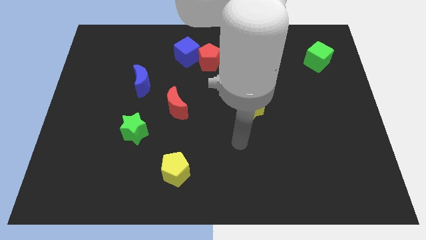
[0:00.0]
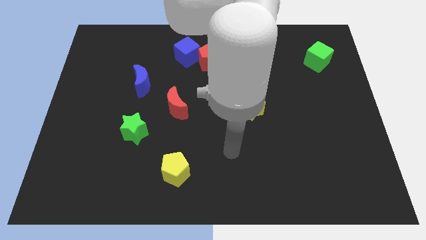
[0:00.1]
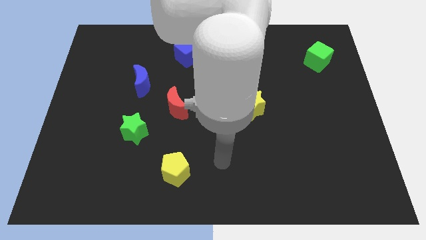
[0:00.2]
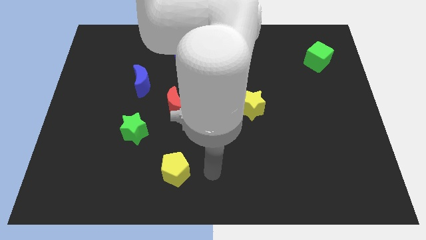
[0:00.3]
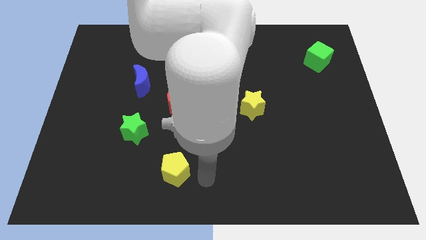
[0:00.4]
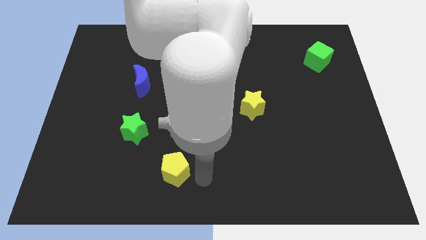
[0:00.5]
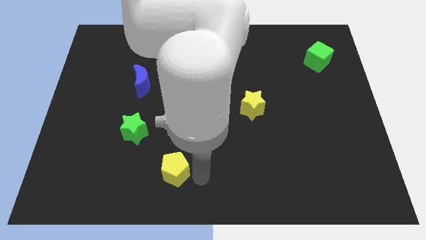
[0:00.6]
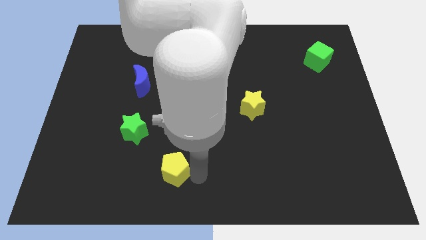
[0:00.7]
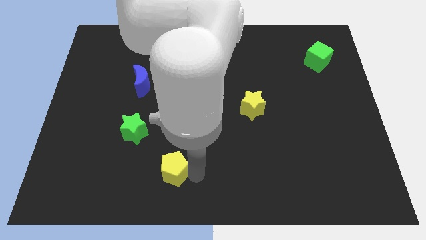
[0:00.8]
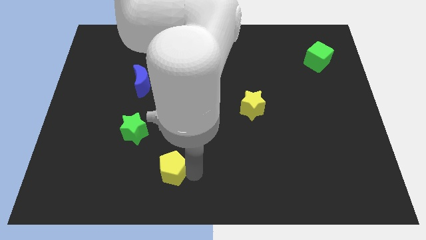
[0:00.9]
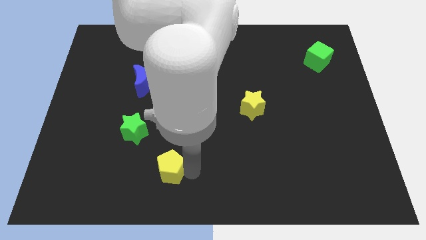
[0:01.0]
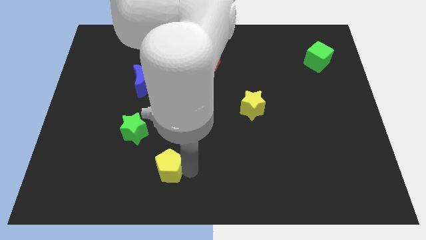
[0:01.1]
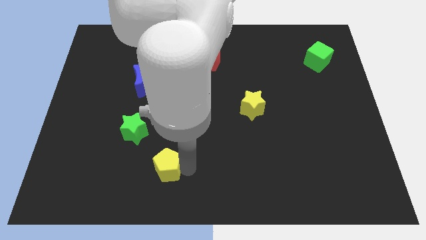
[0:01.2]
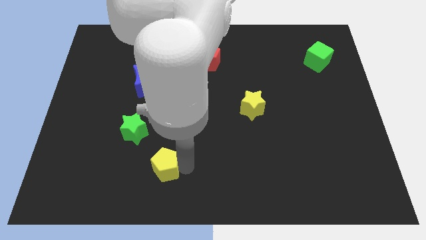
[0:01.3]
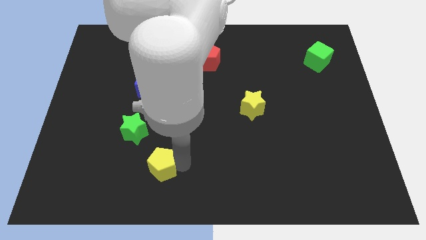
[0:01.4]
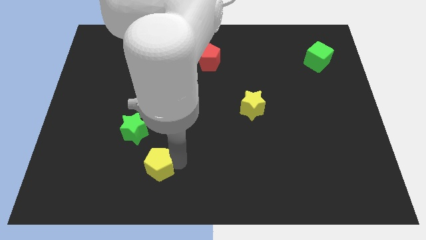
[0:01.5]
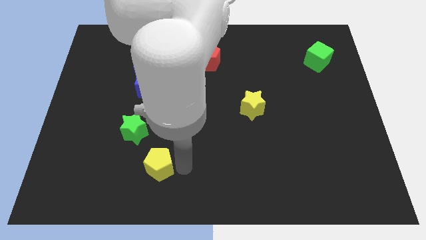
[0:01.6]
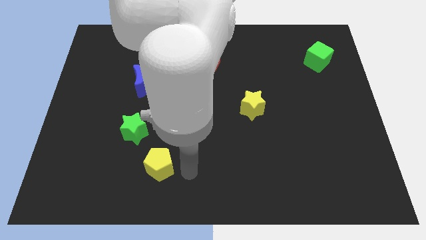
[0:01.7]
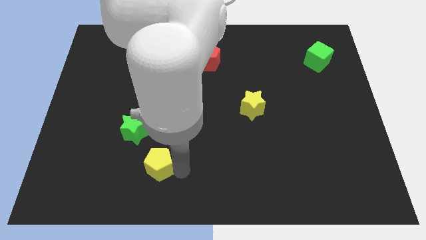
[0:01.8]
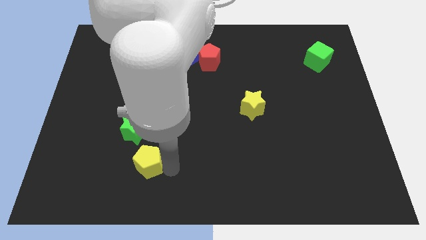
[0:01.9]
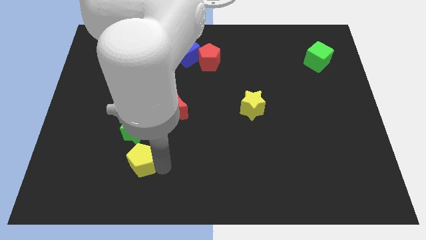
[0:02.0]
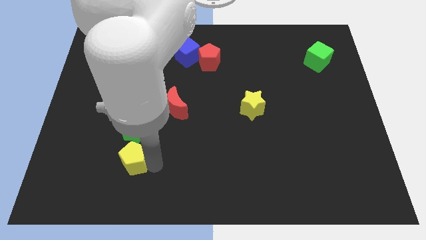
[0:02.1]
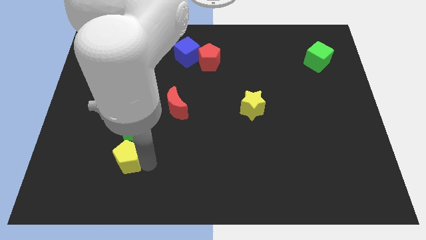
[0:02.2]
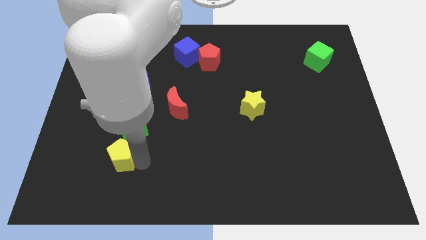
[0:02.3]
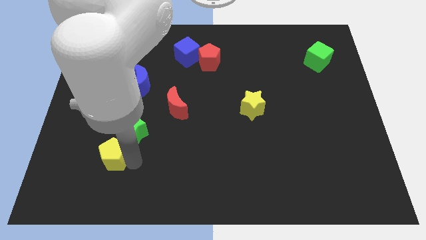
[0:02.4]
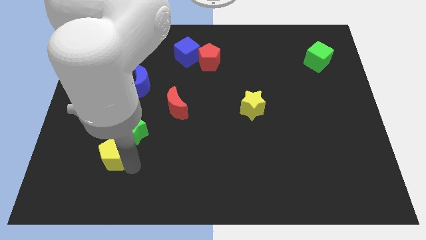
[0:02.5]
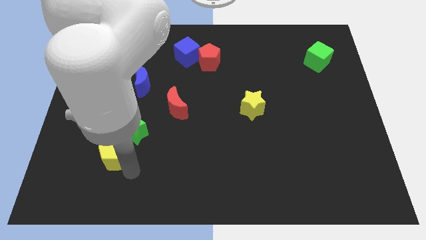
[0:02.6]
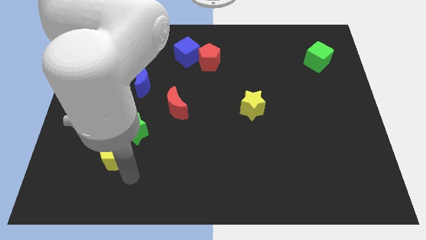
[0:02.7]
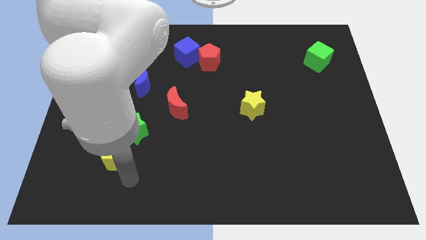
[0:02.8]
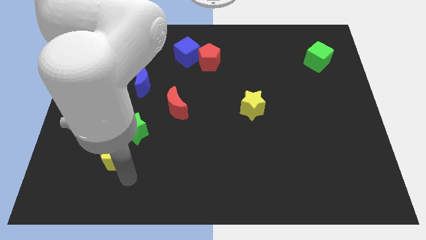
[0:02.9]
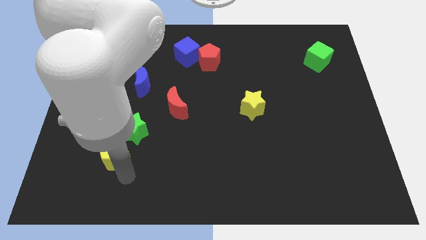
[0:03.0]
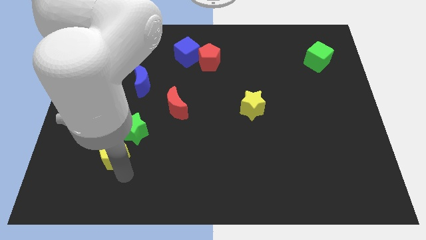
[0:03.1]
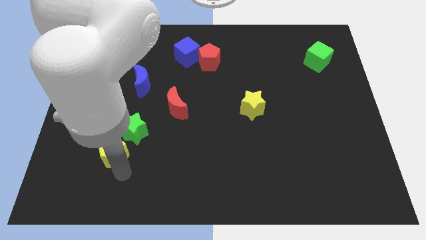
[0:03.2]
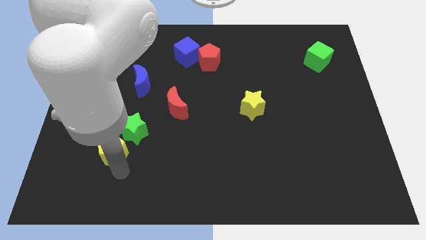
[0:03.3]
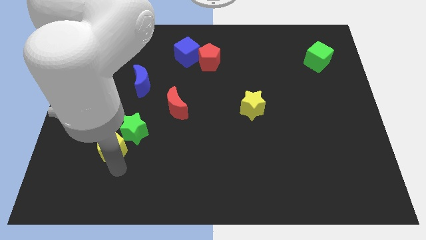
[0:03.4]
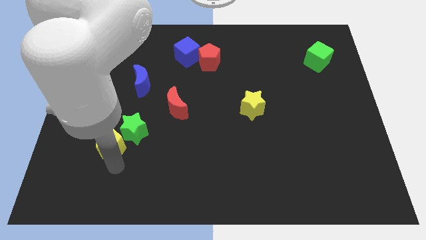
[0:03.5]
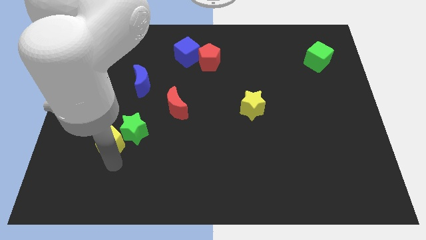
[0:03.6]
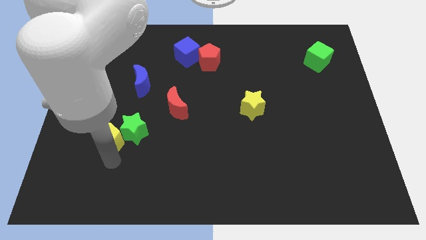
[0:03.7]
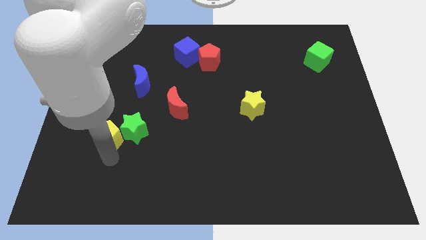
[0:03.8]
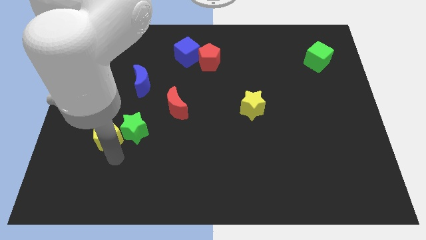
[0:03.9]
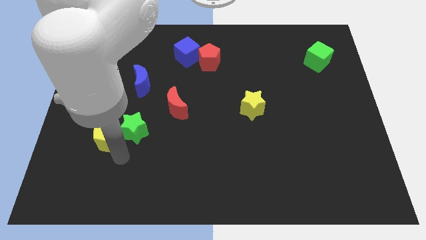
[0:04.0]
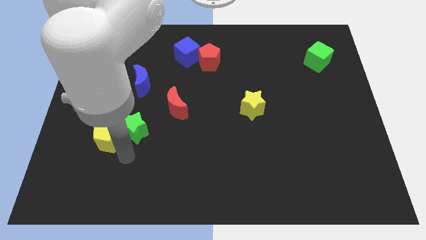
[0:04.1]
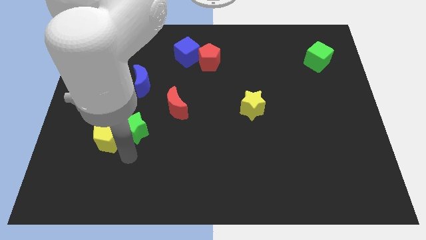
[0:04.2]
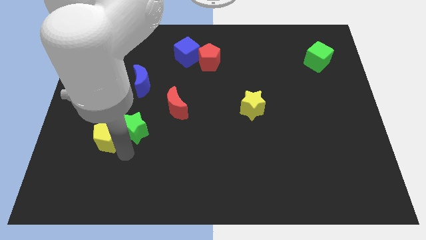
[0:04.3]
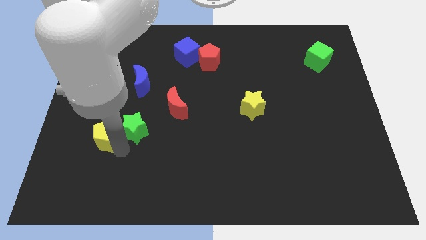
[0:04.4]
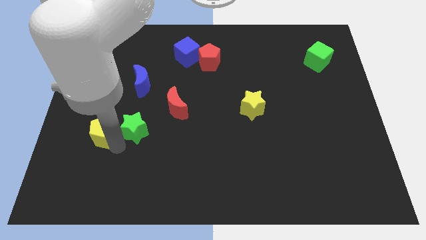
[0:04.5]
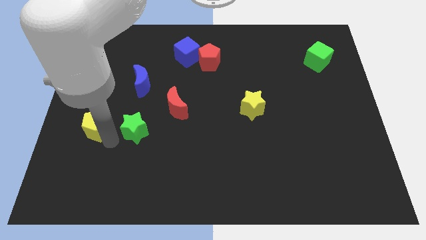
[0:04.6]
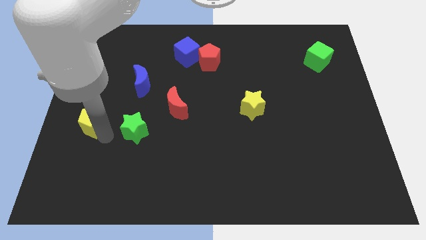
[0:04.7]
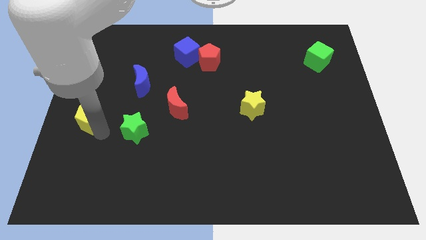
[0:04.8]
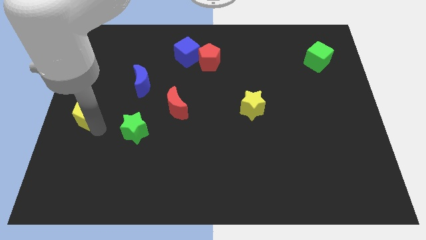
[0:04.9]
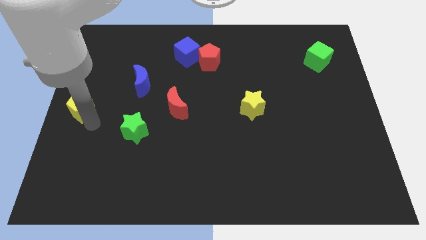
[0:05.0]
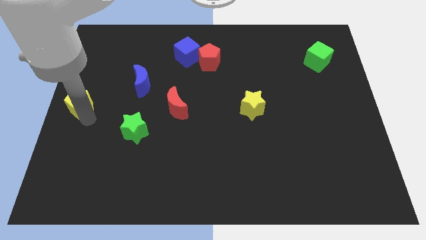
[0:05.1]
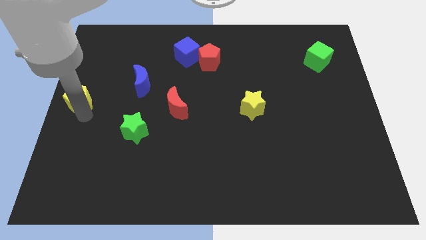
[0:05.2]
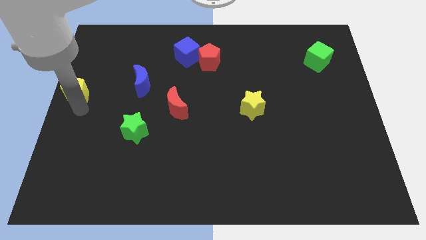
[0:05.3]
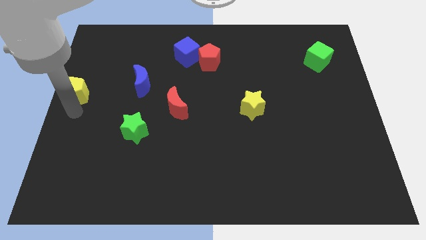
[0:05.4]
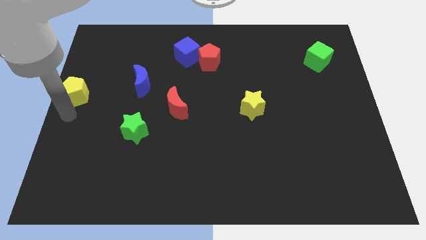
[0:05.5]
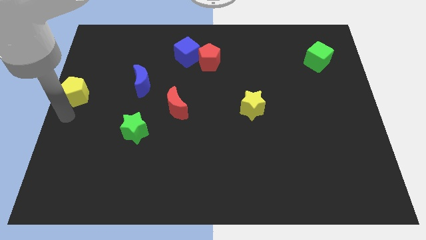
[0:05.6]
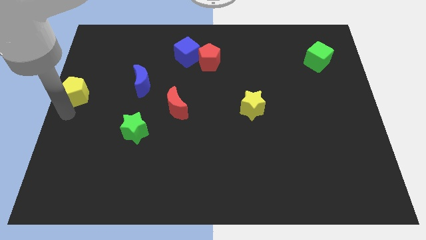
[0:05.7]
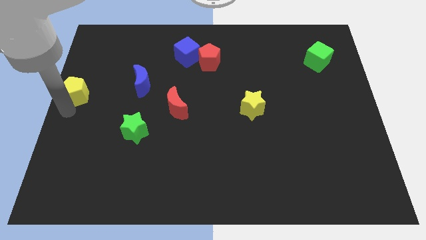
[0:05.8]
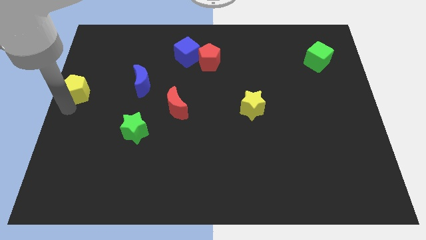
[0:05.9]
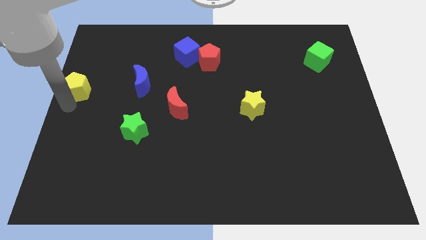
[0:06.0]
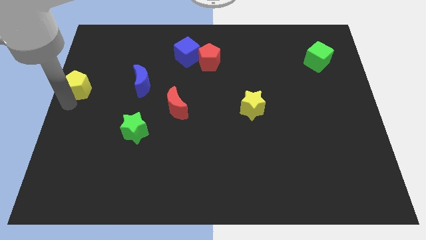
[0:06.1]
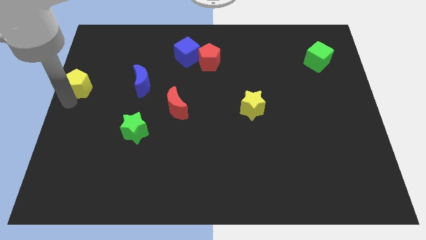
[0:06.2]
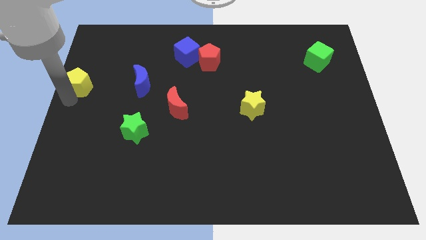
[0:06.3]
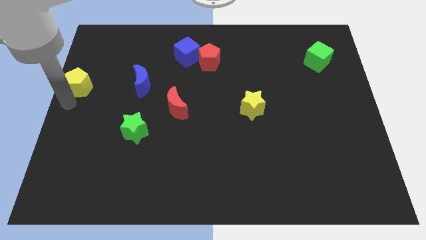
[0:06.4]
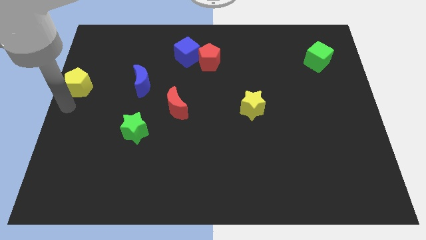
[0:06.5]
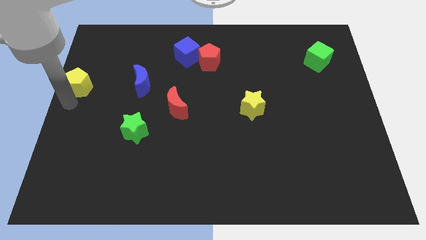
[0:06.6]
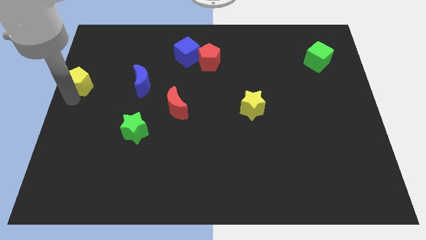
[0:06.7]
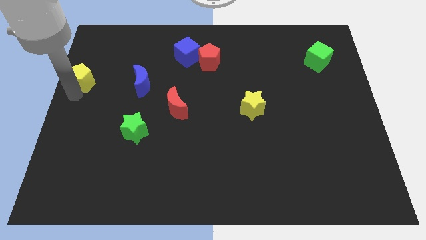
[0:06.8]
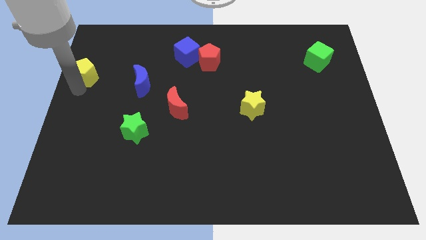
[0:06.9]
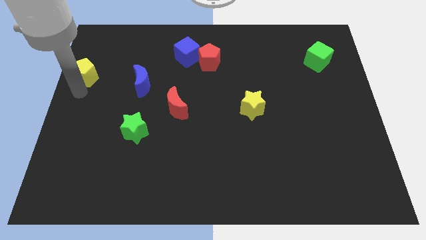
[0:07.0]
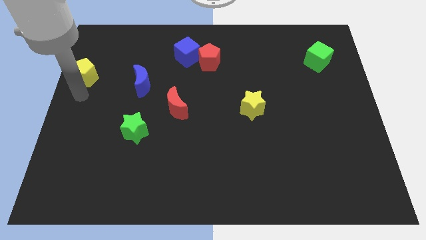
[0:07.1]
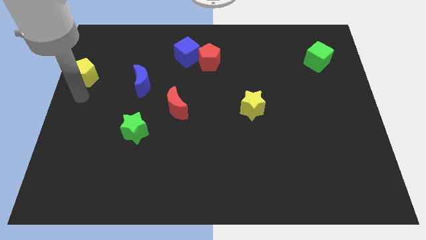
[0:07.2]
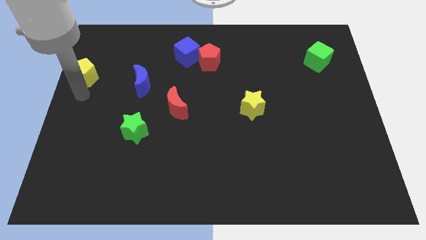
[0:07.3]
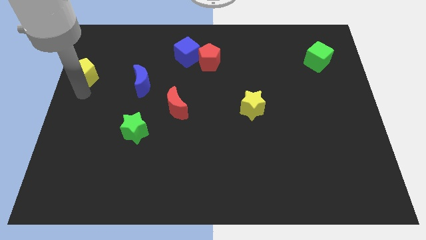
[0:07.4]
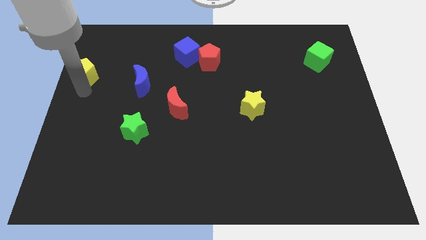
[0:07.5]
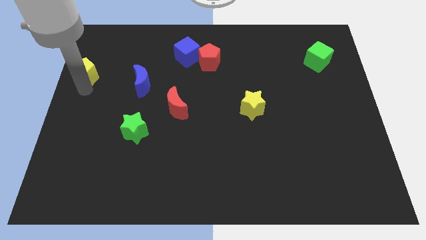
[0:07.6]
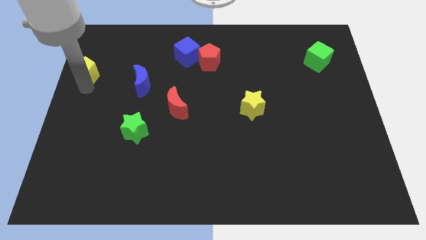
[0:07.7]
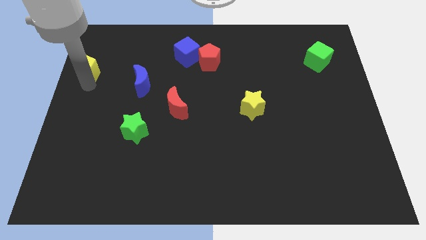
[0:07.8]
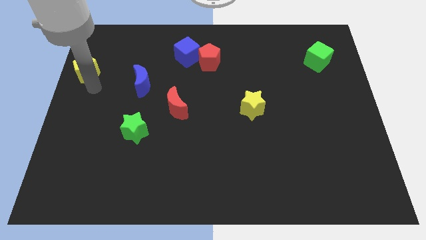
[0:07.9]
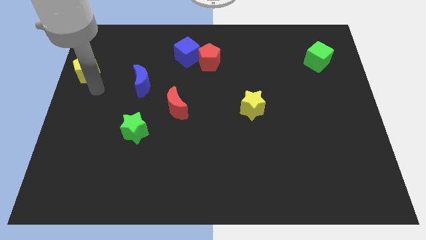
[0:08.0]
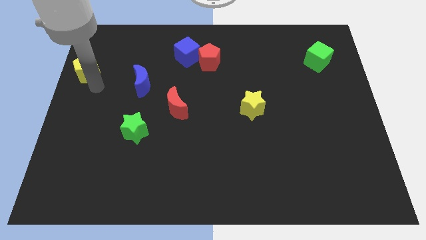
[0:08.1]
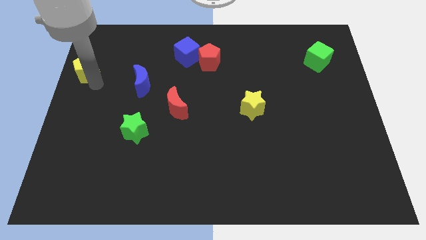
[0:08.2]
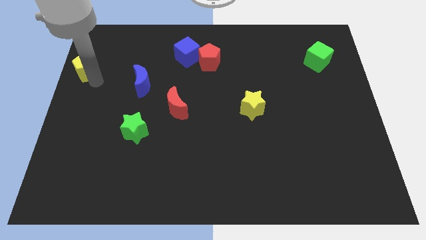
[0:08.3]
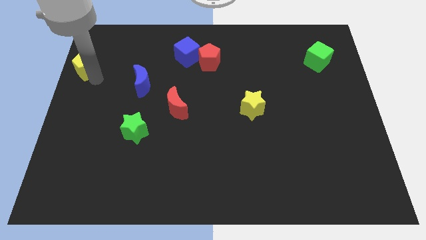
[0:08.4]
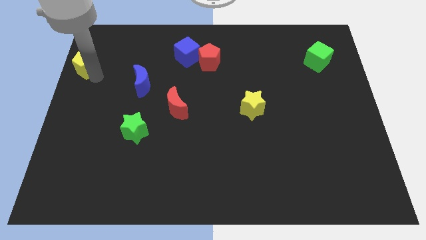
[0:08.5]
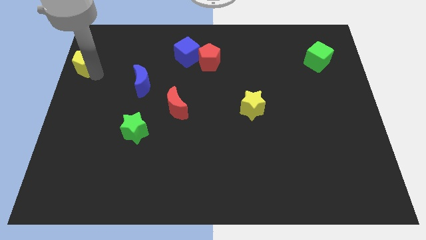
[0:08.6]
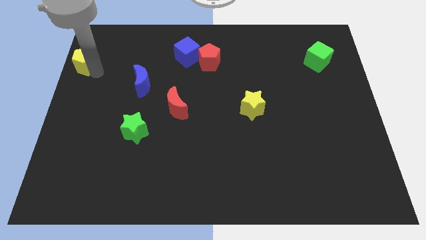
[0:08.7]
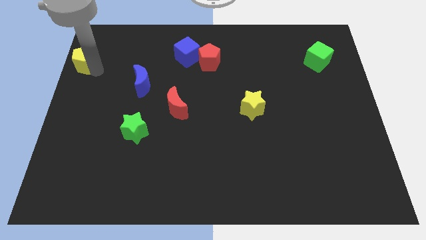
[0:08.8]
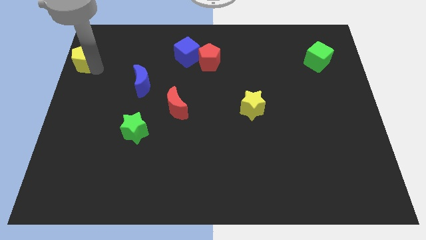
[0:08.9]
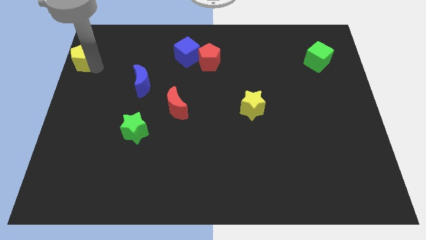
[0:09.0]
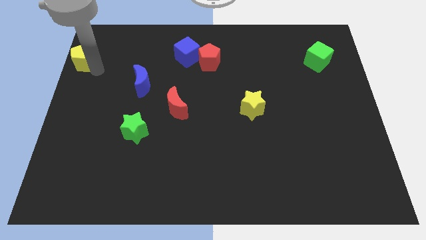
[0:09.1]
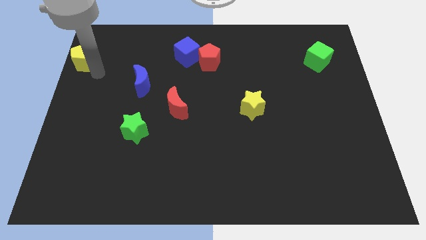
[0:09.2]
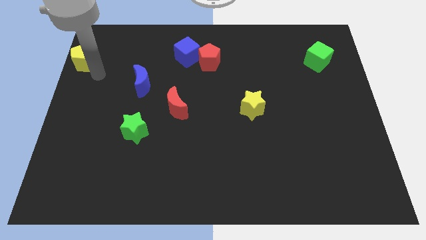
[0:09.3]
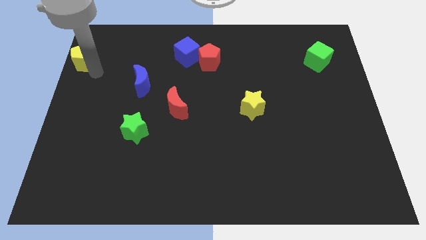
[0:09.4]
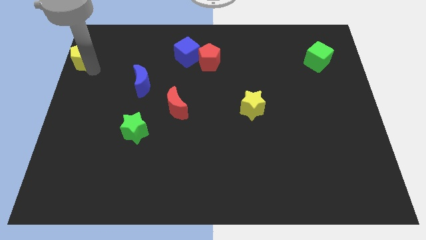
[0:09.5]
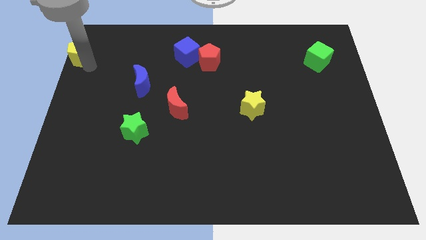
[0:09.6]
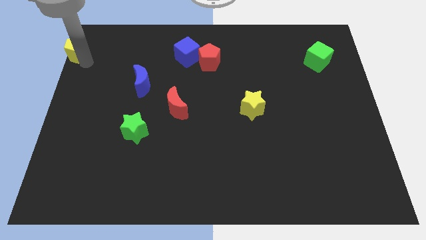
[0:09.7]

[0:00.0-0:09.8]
push the yellow pentagon to the top left corner
